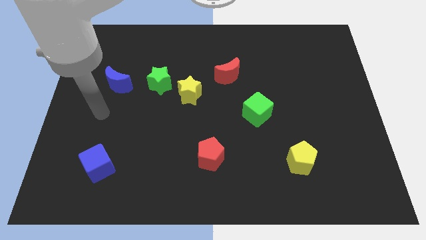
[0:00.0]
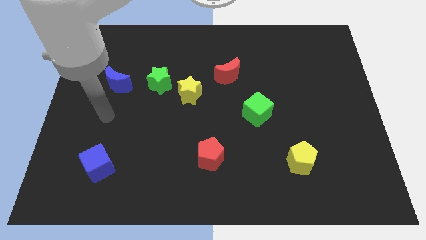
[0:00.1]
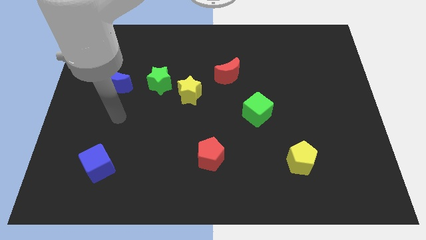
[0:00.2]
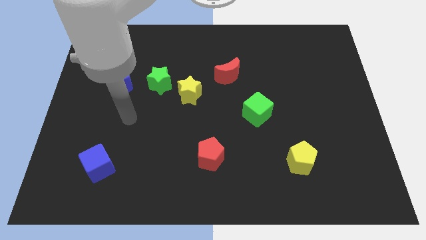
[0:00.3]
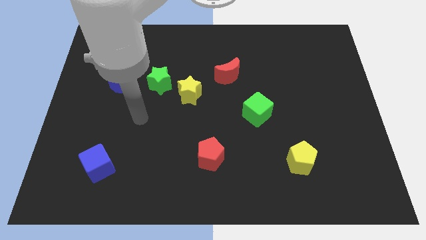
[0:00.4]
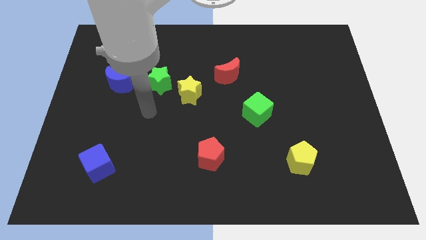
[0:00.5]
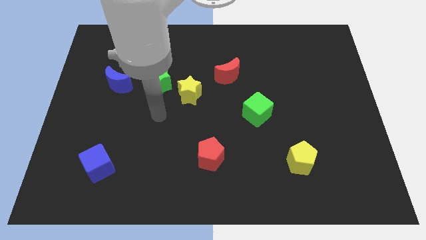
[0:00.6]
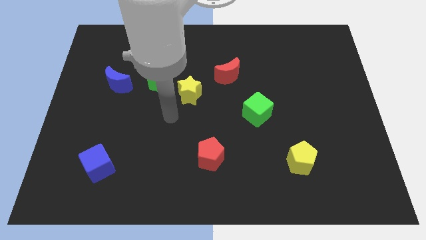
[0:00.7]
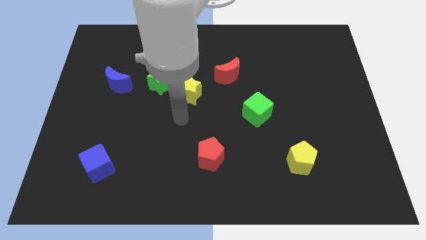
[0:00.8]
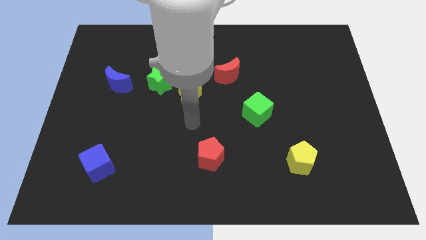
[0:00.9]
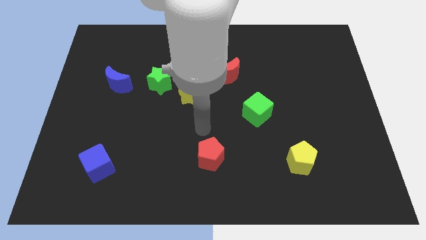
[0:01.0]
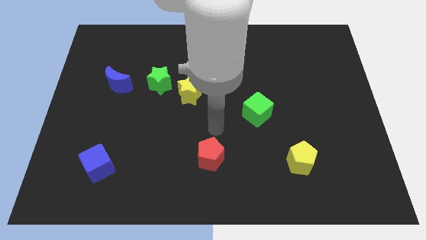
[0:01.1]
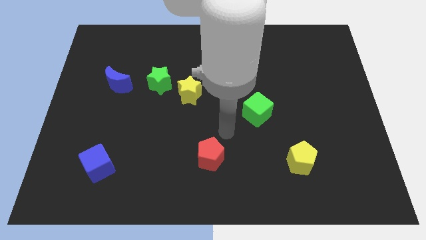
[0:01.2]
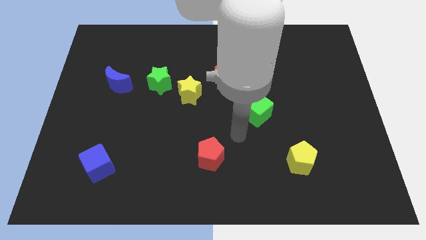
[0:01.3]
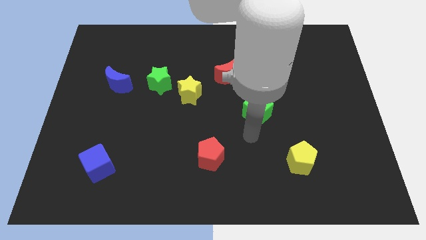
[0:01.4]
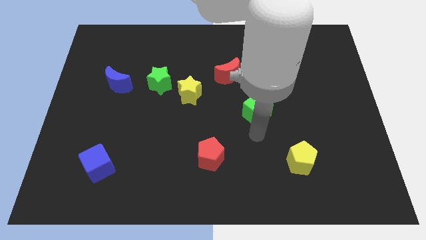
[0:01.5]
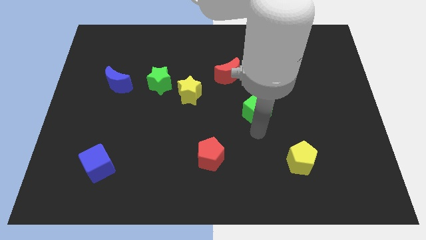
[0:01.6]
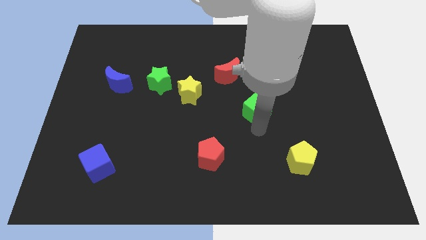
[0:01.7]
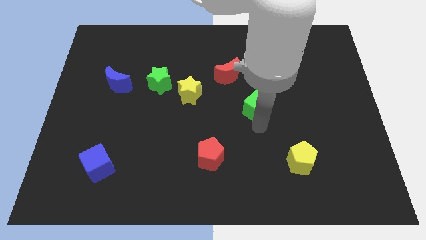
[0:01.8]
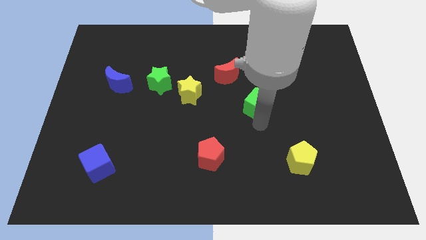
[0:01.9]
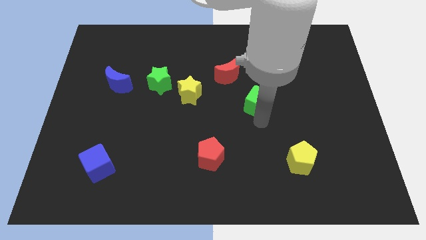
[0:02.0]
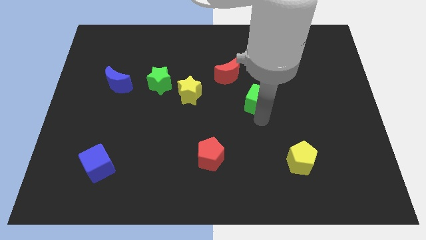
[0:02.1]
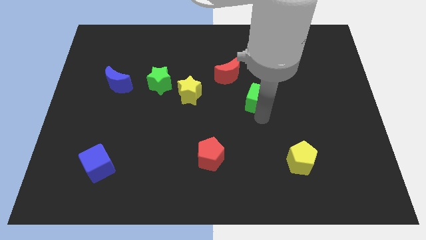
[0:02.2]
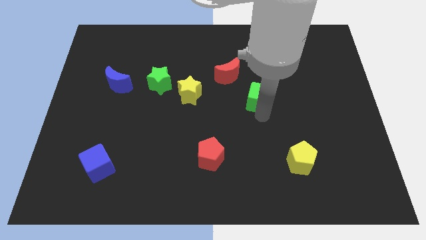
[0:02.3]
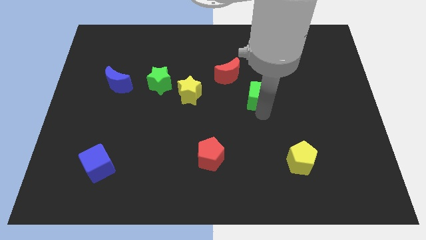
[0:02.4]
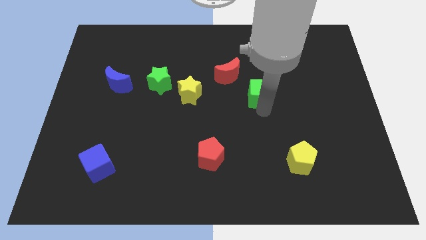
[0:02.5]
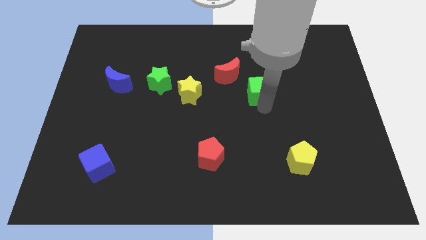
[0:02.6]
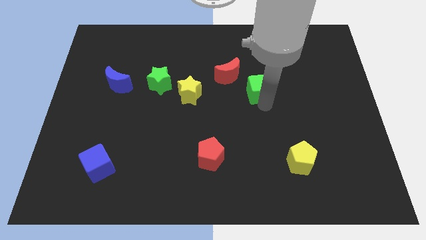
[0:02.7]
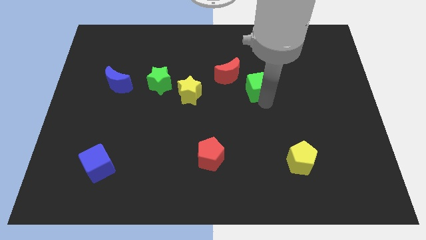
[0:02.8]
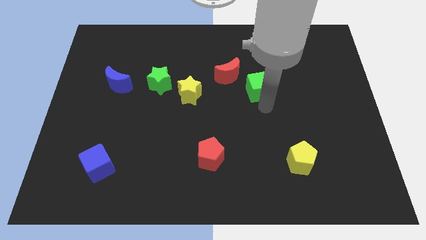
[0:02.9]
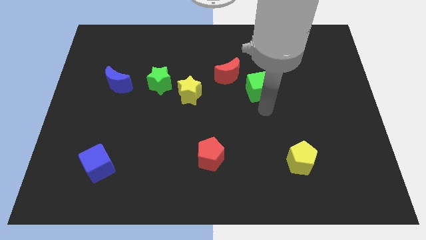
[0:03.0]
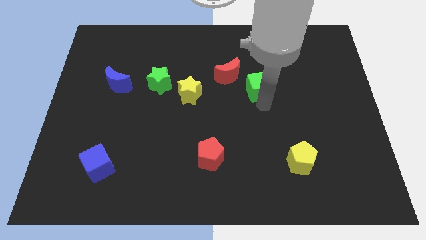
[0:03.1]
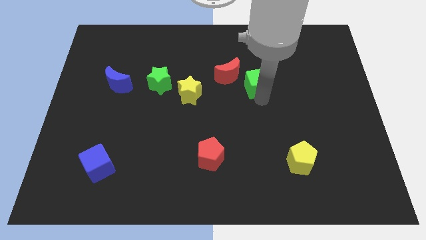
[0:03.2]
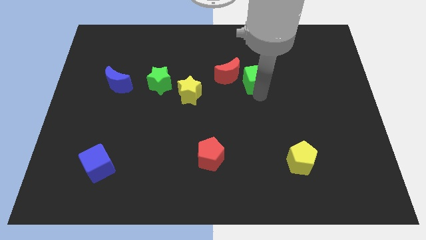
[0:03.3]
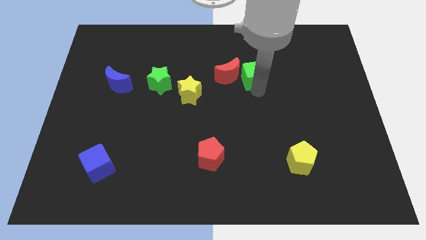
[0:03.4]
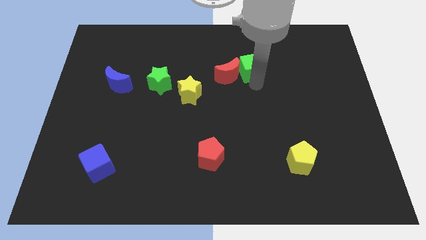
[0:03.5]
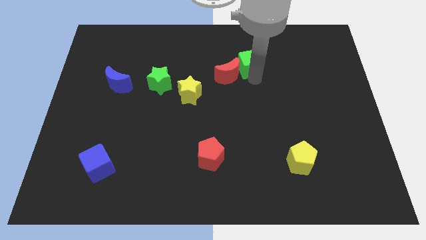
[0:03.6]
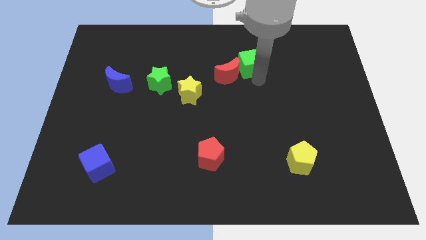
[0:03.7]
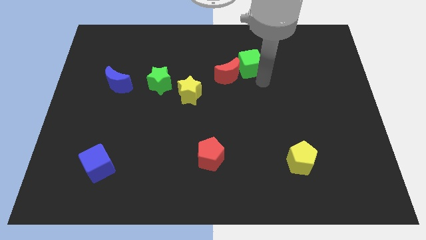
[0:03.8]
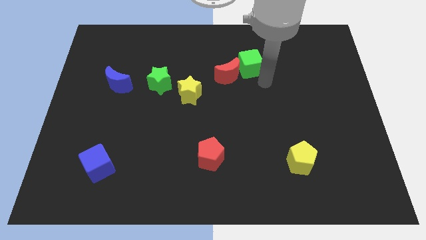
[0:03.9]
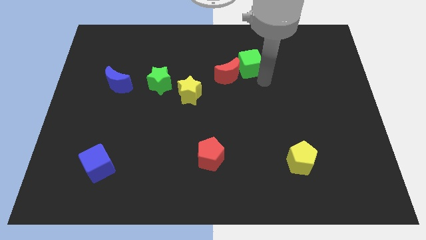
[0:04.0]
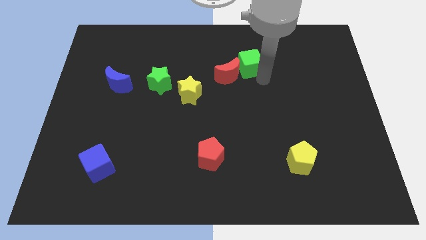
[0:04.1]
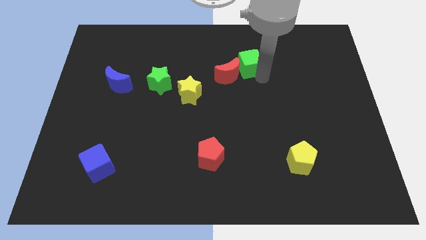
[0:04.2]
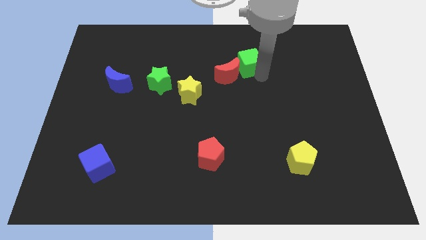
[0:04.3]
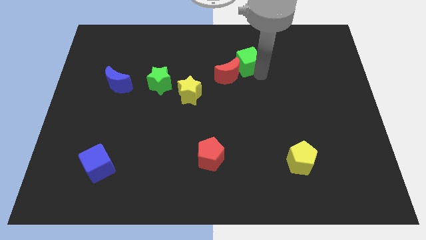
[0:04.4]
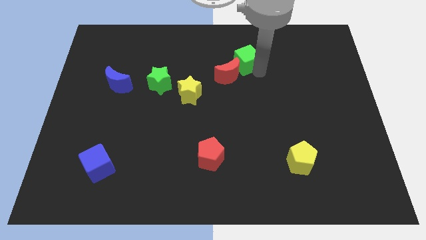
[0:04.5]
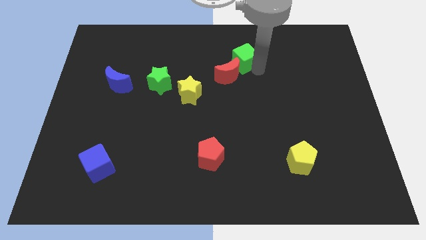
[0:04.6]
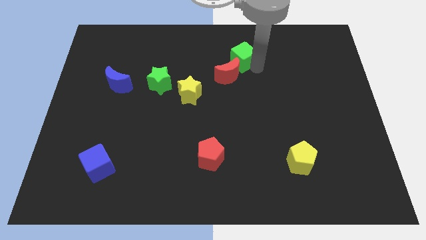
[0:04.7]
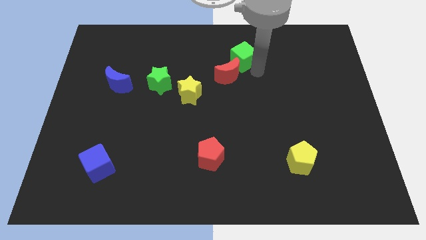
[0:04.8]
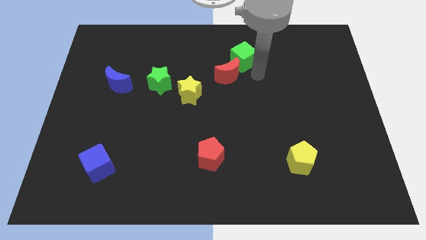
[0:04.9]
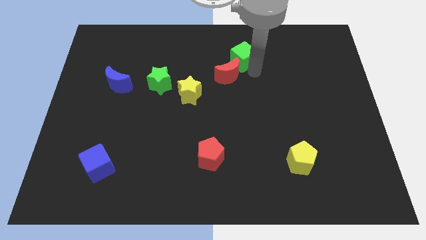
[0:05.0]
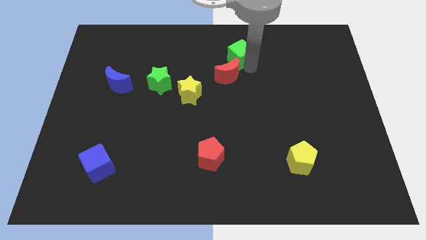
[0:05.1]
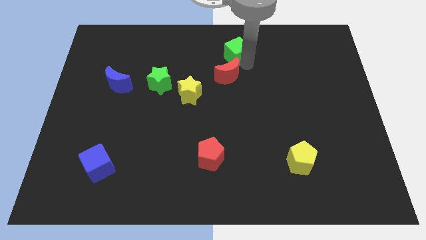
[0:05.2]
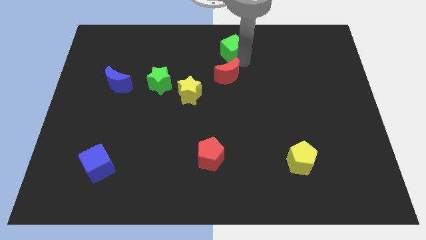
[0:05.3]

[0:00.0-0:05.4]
slide the green cube to the top side
